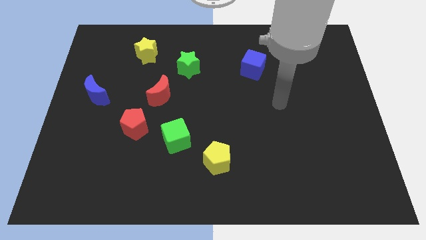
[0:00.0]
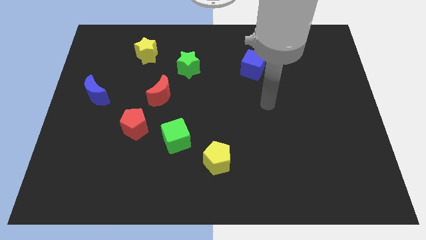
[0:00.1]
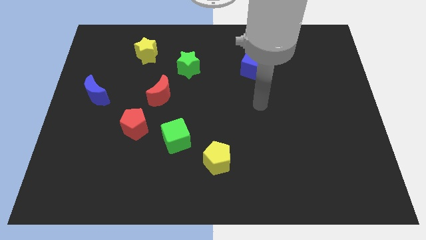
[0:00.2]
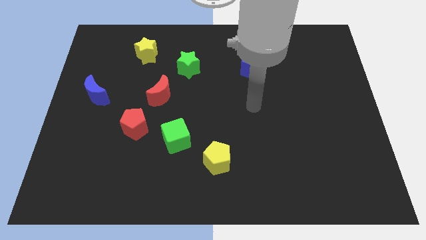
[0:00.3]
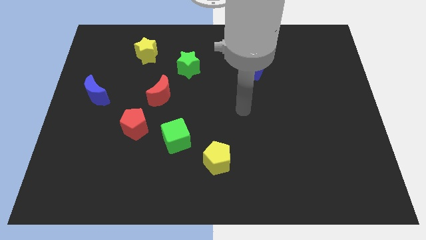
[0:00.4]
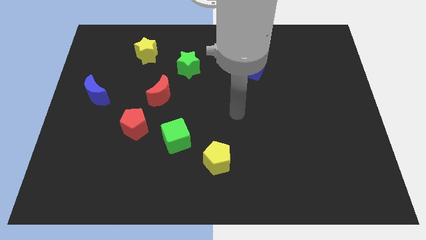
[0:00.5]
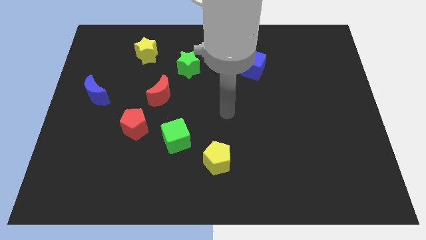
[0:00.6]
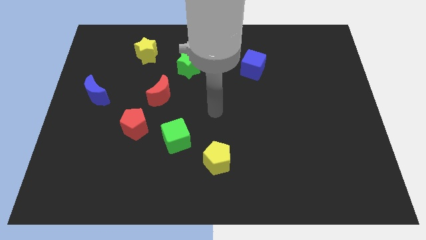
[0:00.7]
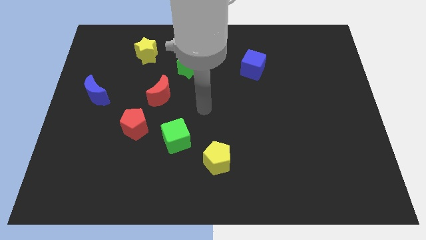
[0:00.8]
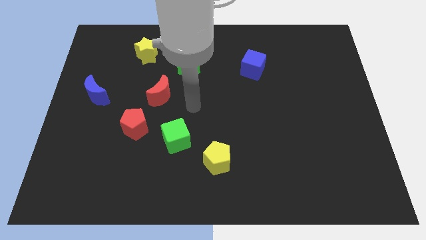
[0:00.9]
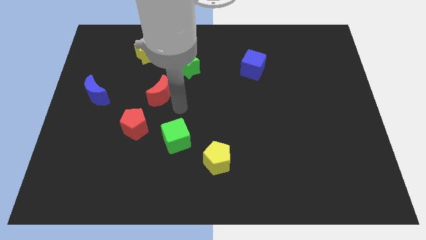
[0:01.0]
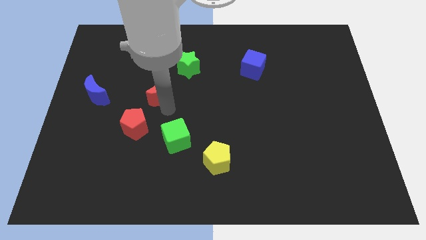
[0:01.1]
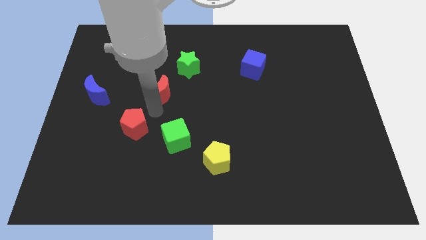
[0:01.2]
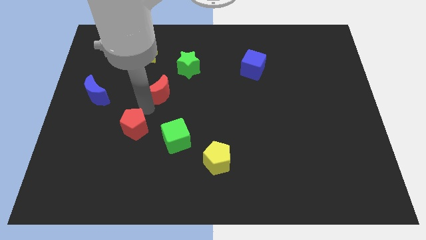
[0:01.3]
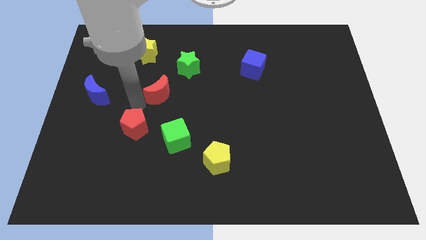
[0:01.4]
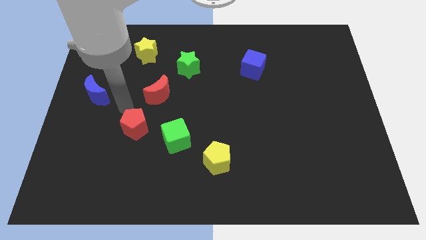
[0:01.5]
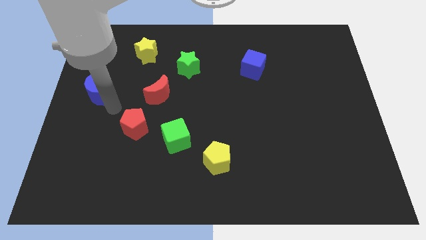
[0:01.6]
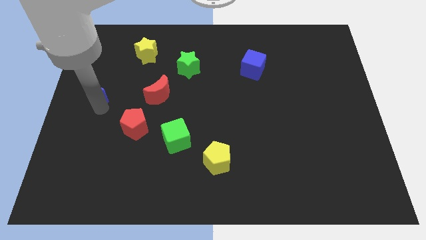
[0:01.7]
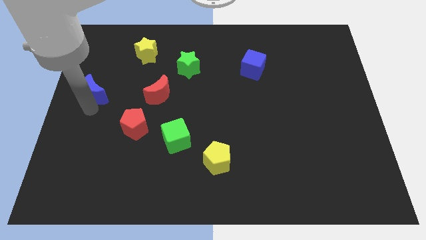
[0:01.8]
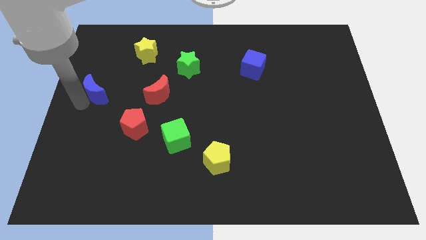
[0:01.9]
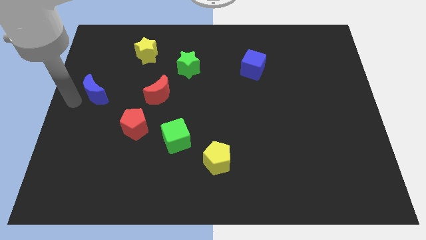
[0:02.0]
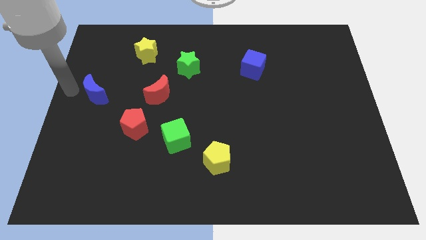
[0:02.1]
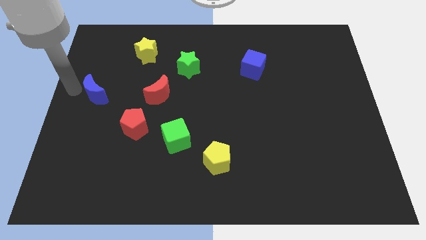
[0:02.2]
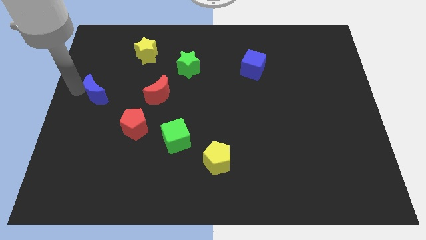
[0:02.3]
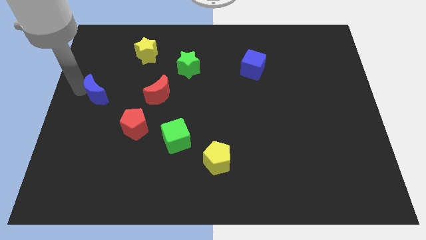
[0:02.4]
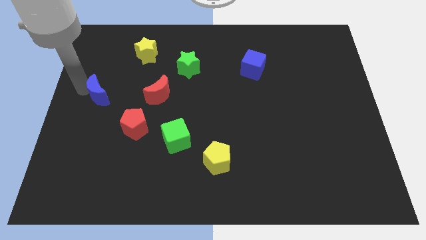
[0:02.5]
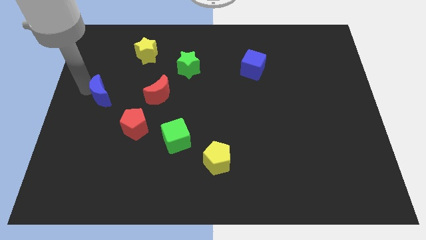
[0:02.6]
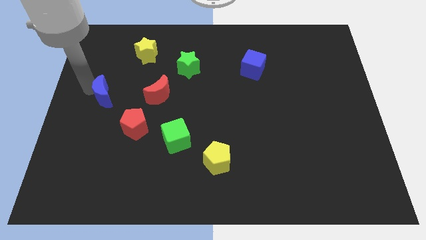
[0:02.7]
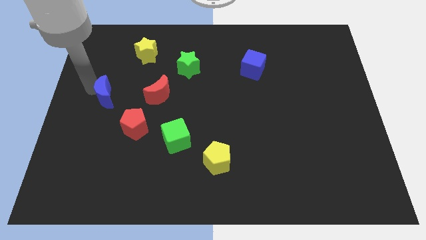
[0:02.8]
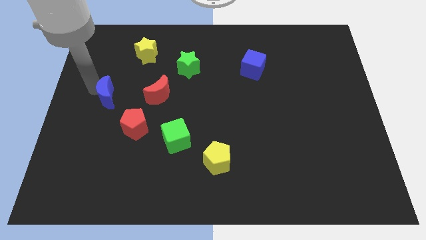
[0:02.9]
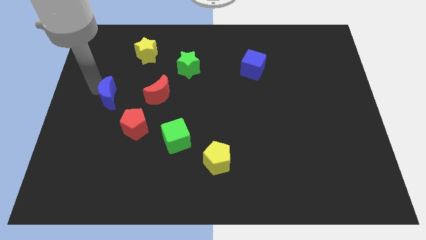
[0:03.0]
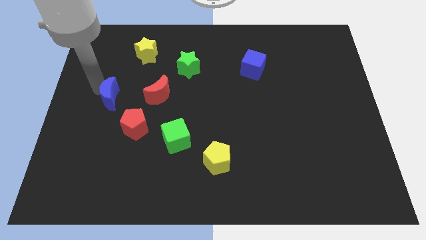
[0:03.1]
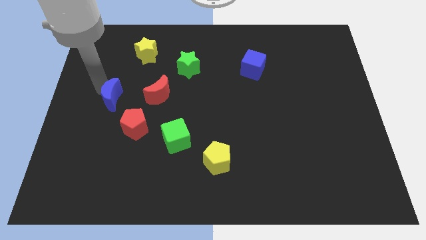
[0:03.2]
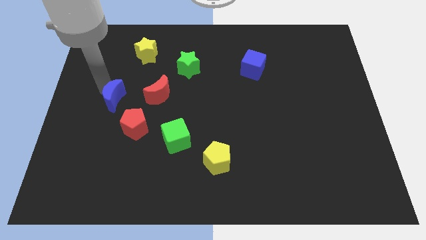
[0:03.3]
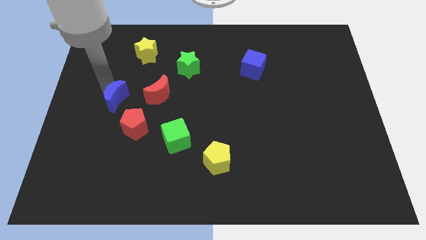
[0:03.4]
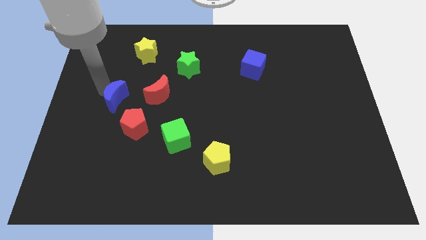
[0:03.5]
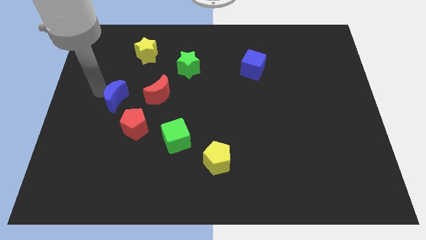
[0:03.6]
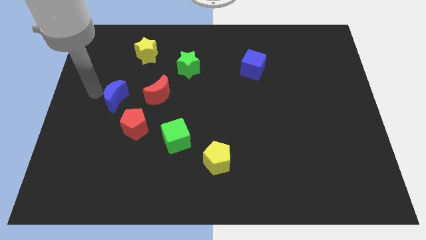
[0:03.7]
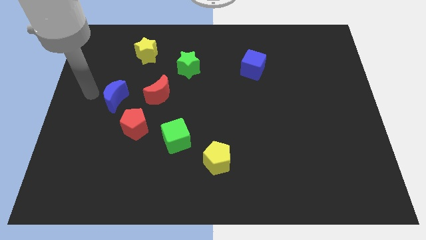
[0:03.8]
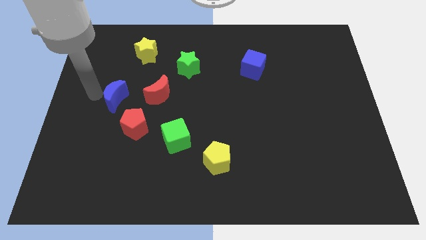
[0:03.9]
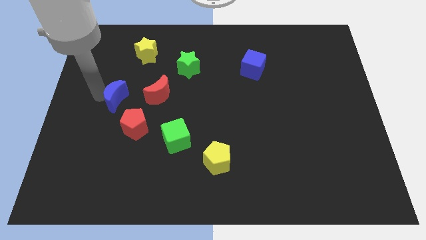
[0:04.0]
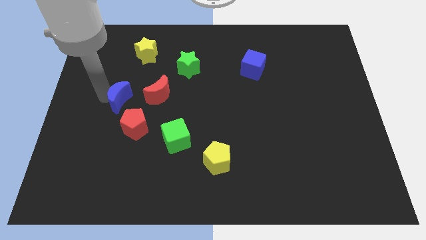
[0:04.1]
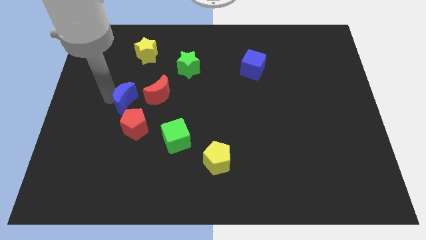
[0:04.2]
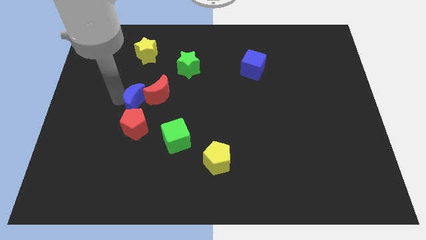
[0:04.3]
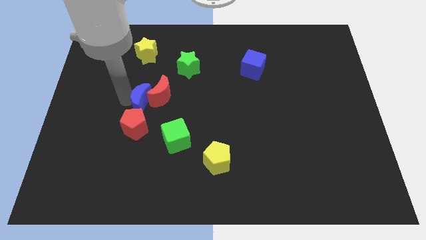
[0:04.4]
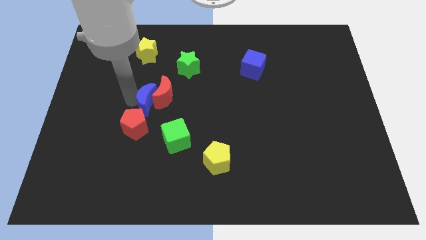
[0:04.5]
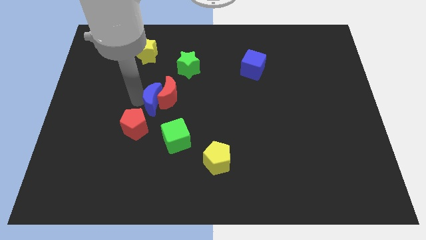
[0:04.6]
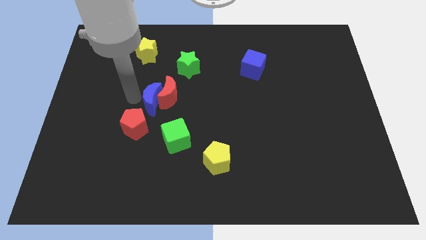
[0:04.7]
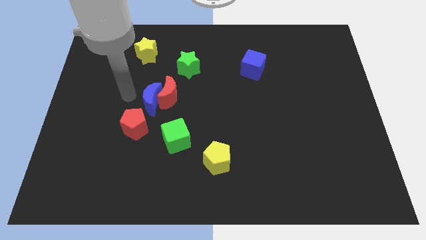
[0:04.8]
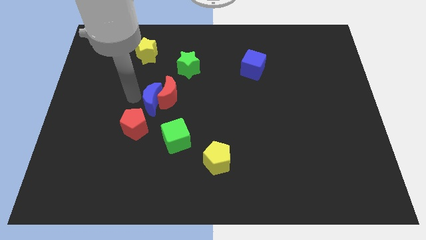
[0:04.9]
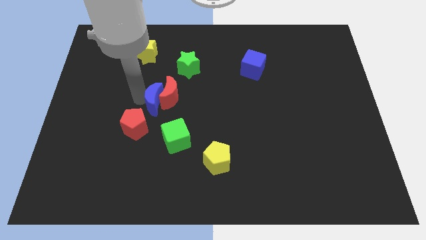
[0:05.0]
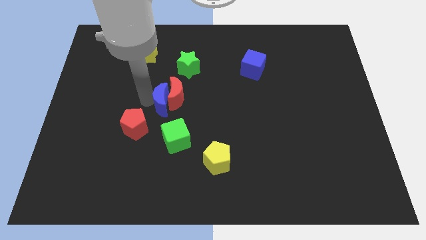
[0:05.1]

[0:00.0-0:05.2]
move the blue moon to the middle

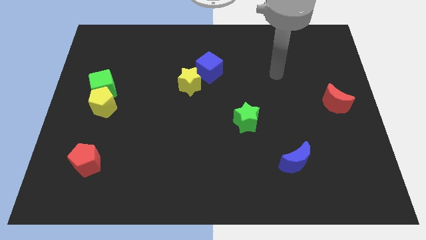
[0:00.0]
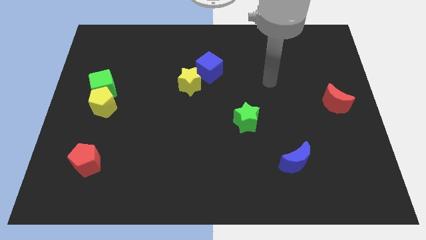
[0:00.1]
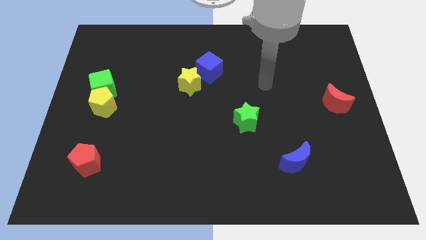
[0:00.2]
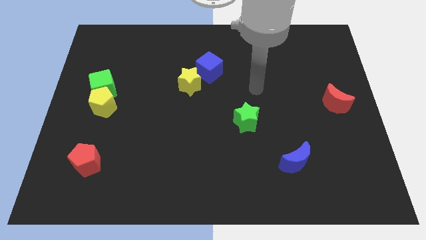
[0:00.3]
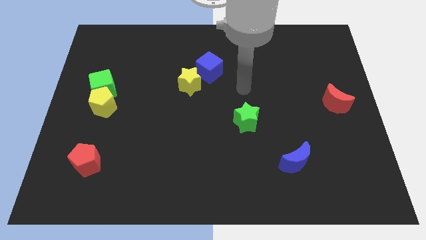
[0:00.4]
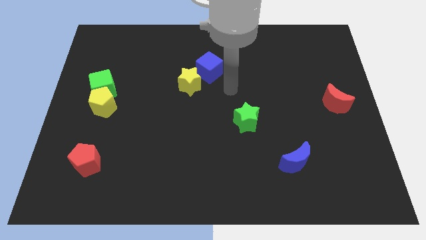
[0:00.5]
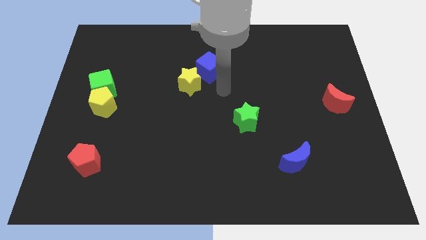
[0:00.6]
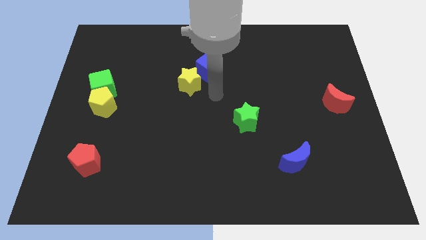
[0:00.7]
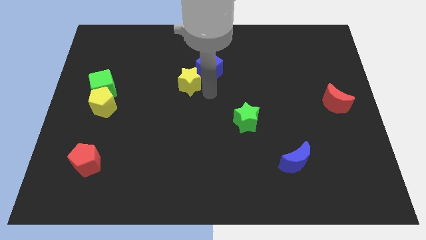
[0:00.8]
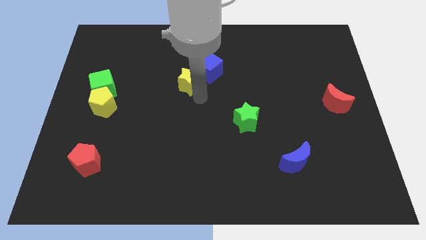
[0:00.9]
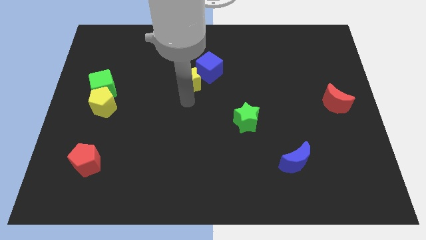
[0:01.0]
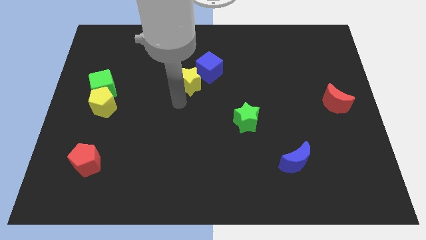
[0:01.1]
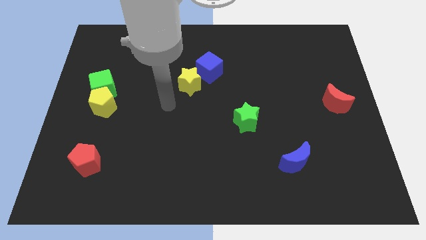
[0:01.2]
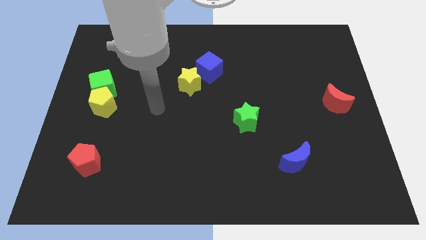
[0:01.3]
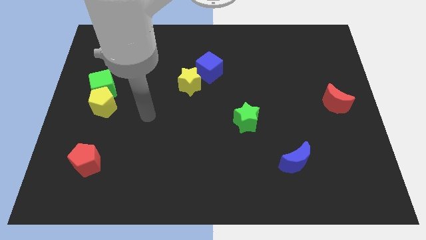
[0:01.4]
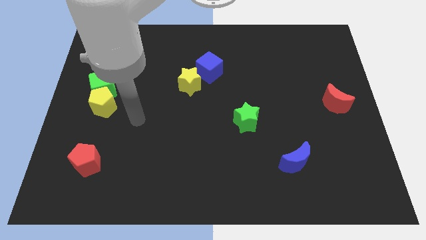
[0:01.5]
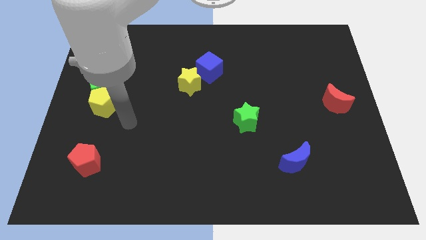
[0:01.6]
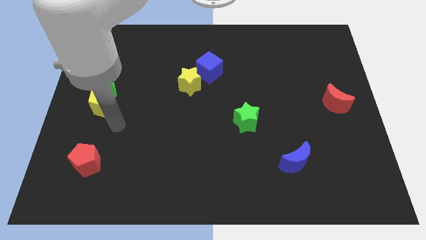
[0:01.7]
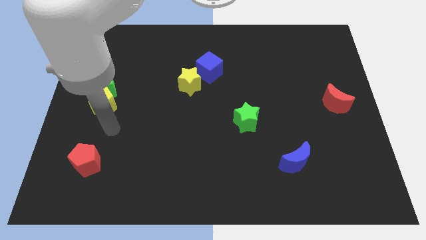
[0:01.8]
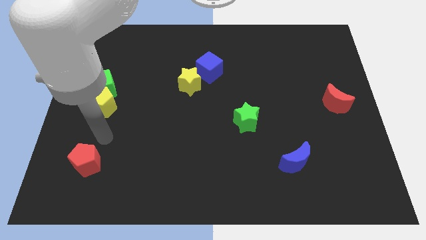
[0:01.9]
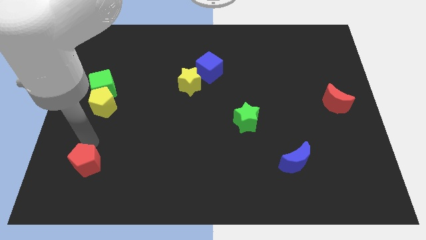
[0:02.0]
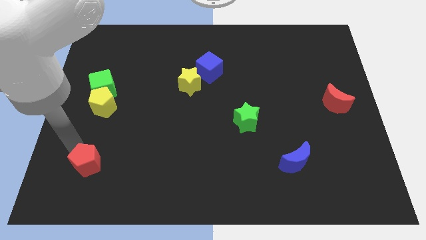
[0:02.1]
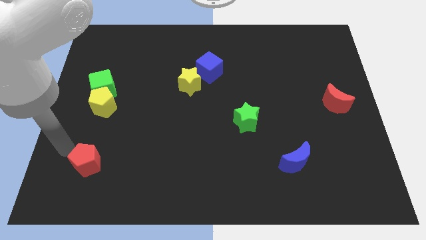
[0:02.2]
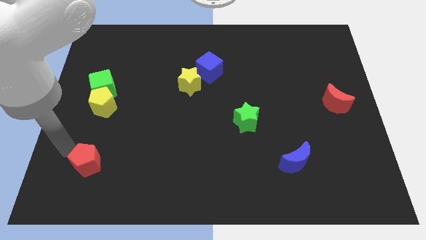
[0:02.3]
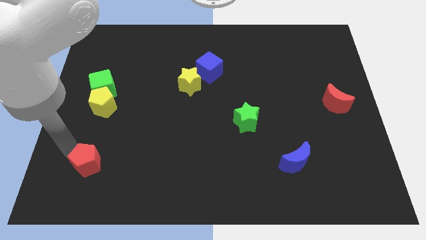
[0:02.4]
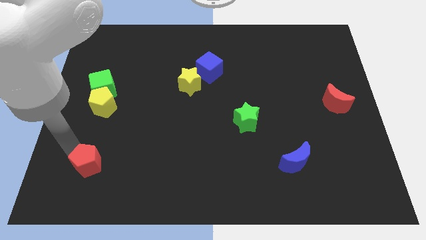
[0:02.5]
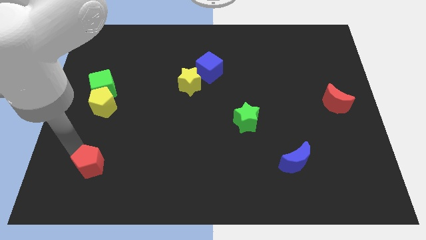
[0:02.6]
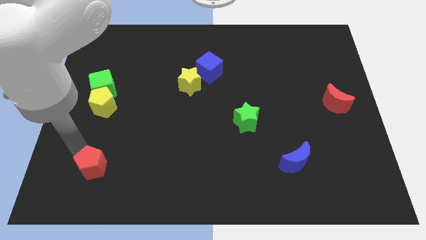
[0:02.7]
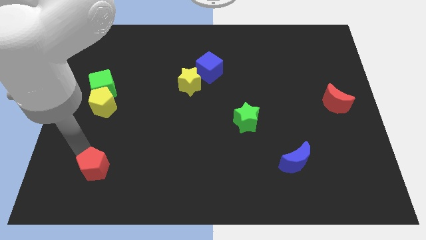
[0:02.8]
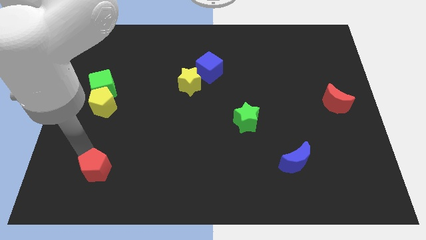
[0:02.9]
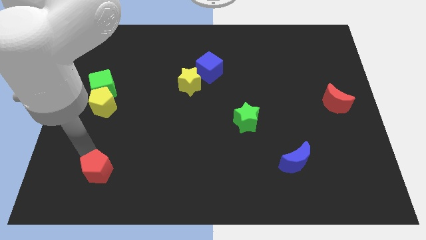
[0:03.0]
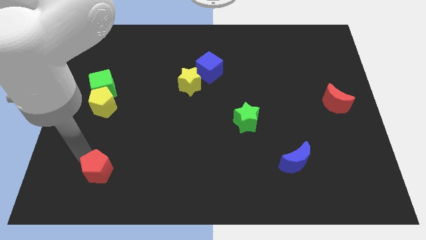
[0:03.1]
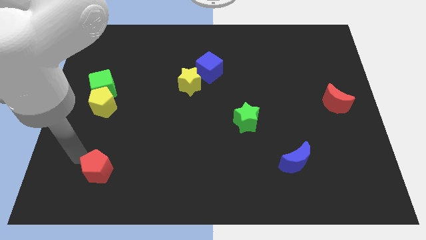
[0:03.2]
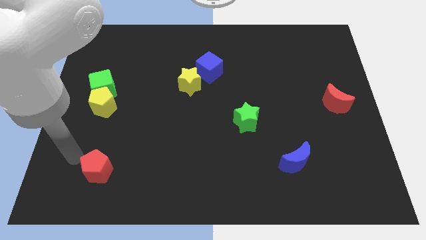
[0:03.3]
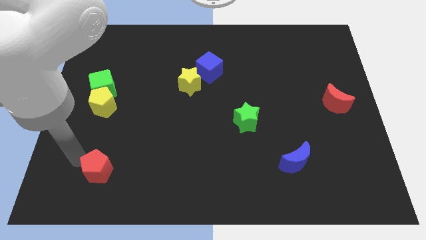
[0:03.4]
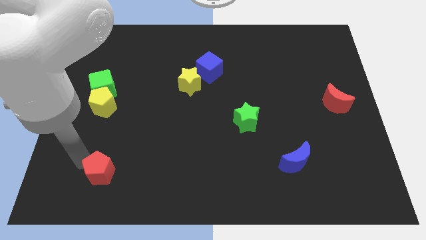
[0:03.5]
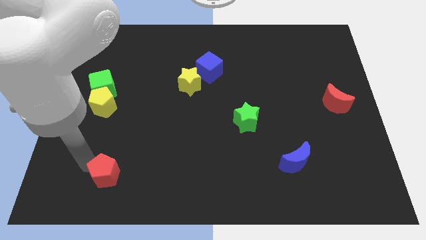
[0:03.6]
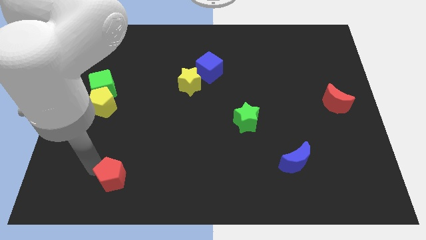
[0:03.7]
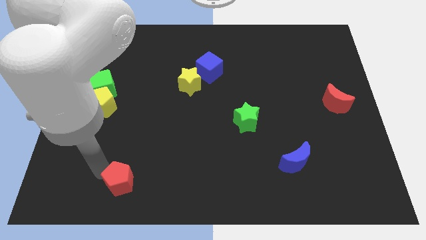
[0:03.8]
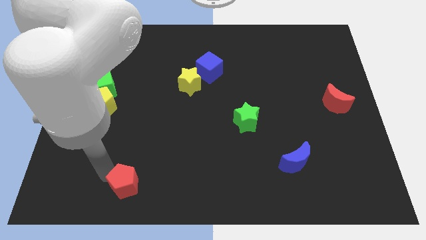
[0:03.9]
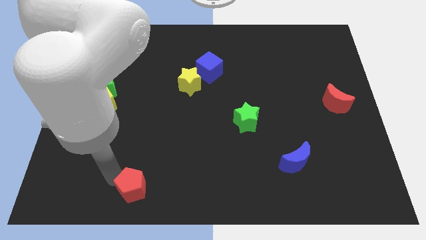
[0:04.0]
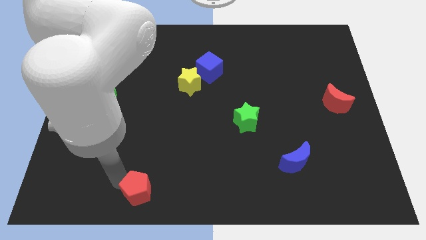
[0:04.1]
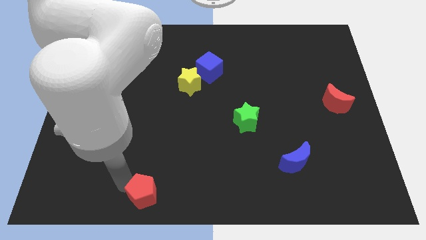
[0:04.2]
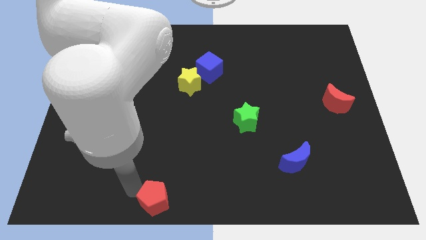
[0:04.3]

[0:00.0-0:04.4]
move the red pentagon to the bottom
